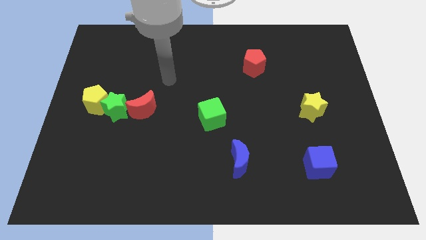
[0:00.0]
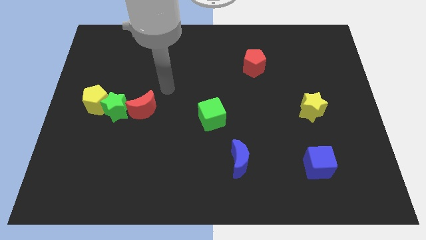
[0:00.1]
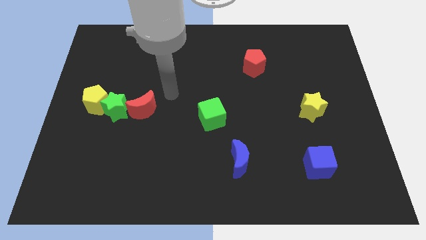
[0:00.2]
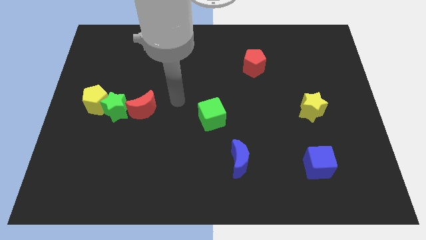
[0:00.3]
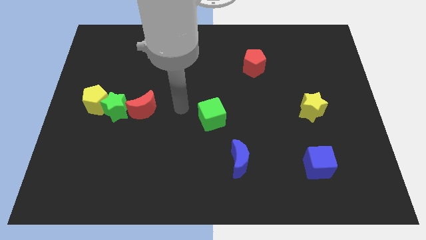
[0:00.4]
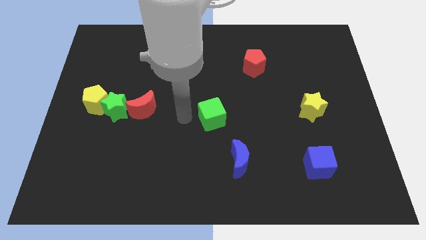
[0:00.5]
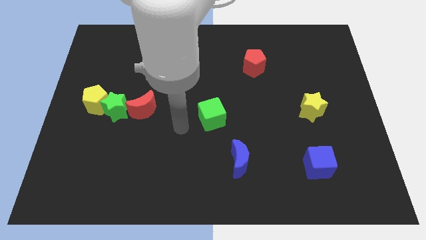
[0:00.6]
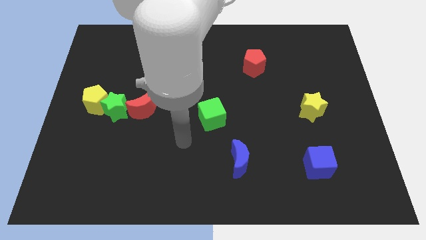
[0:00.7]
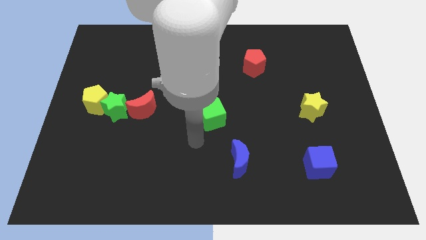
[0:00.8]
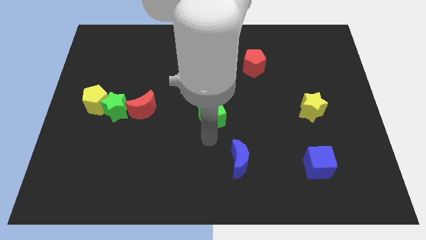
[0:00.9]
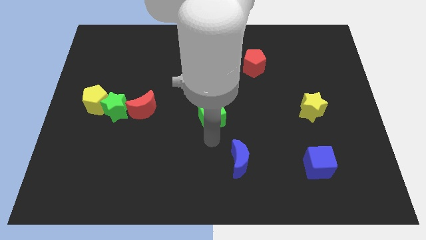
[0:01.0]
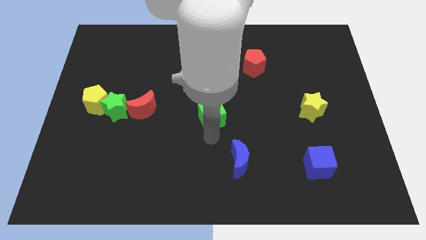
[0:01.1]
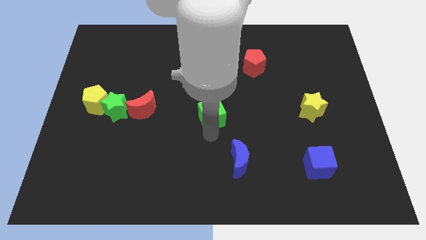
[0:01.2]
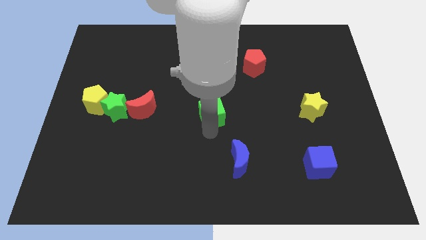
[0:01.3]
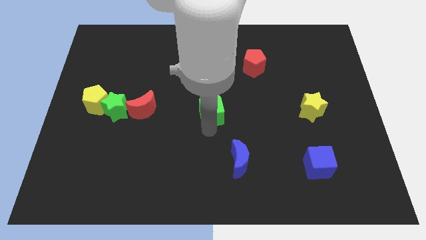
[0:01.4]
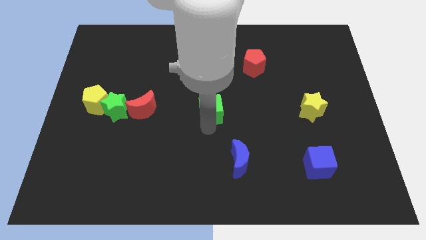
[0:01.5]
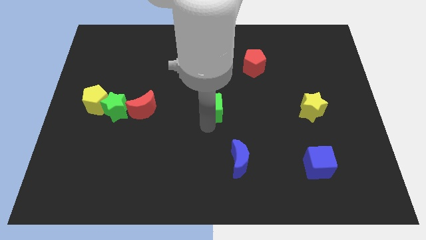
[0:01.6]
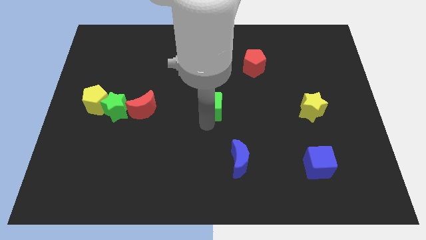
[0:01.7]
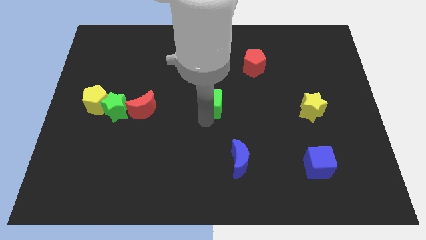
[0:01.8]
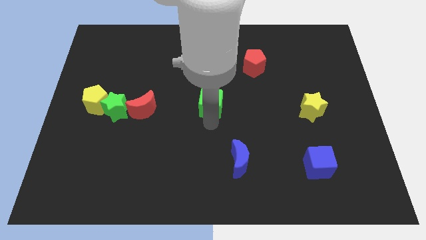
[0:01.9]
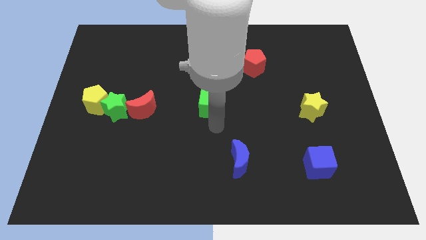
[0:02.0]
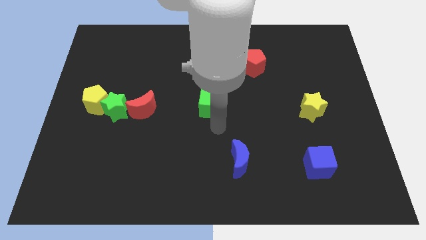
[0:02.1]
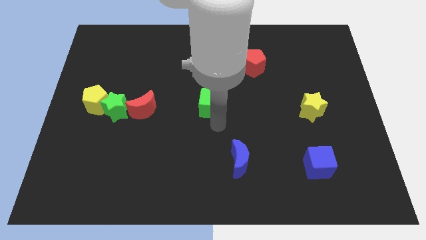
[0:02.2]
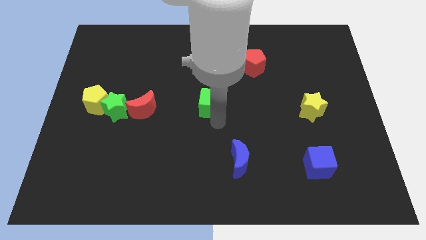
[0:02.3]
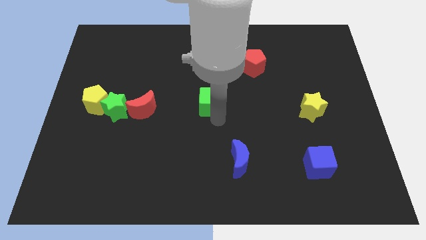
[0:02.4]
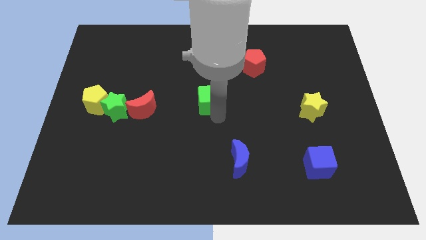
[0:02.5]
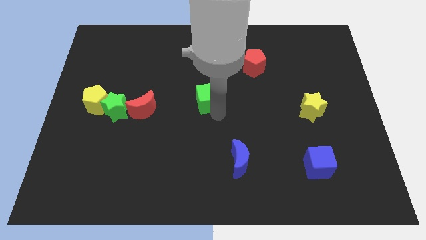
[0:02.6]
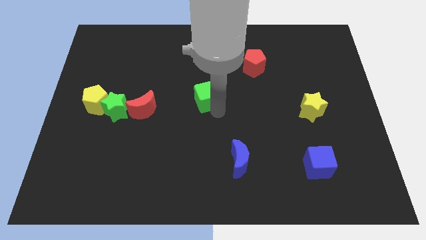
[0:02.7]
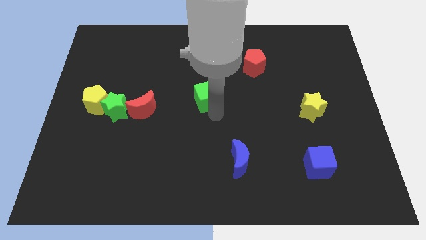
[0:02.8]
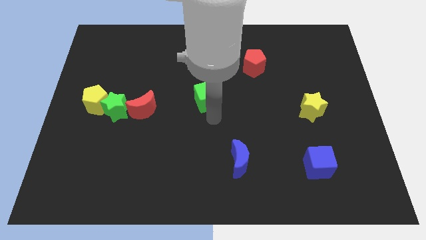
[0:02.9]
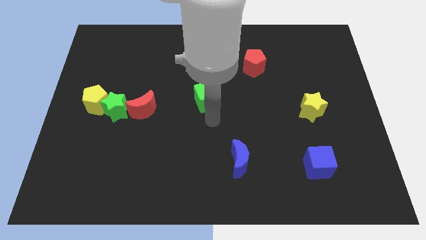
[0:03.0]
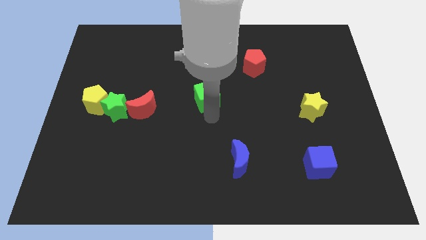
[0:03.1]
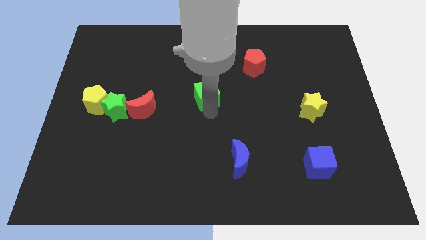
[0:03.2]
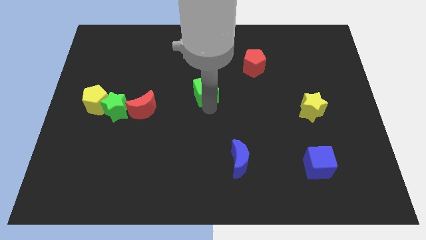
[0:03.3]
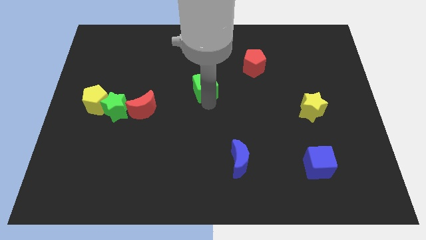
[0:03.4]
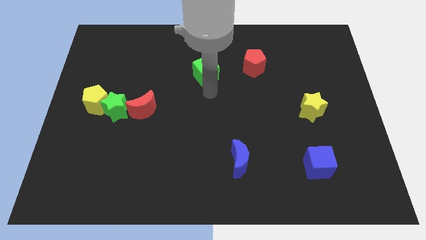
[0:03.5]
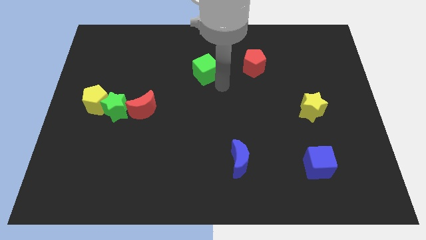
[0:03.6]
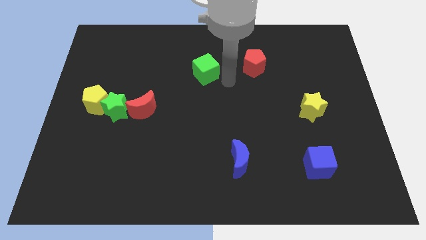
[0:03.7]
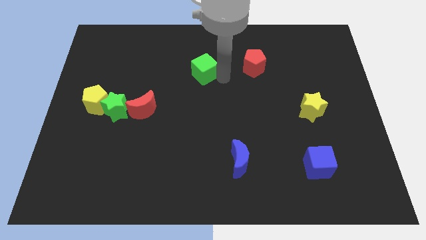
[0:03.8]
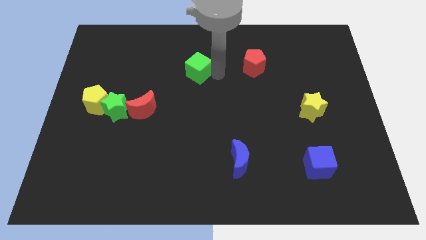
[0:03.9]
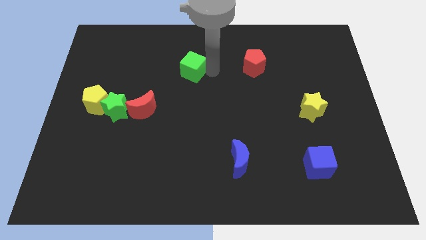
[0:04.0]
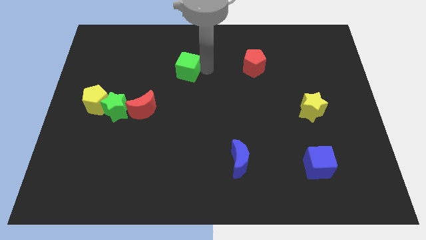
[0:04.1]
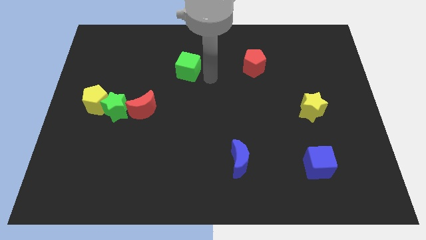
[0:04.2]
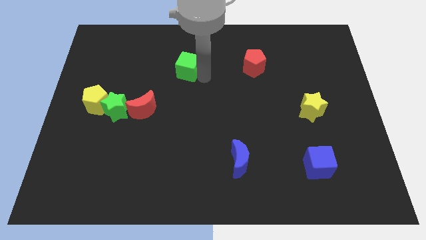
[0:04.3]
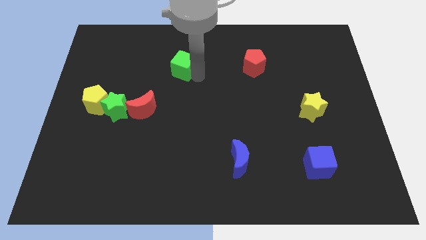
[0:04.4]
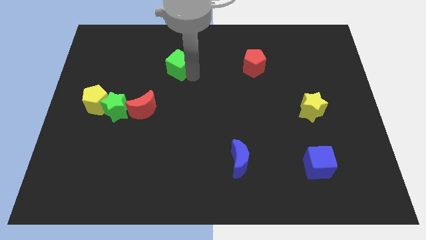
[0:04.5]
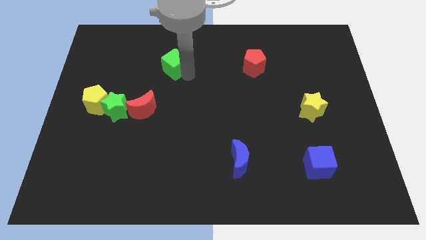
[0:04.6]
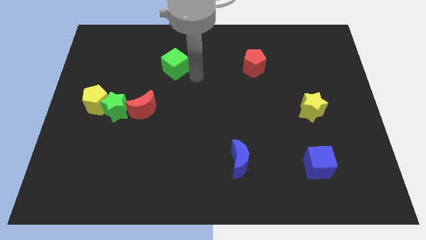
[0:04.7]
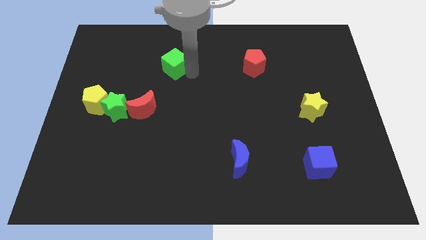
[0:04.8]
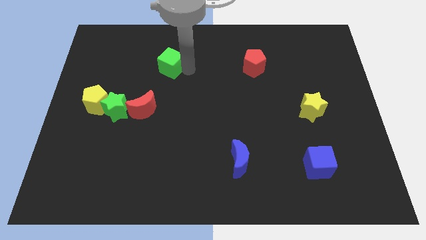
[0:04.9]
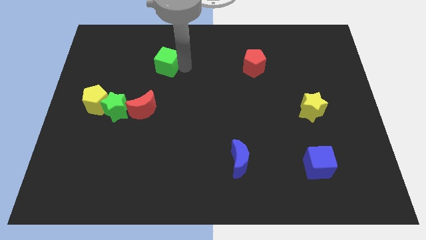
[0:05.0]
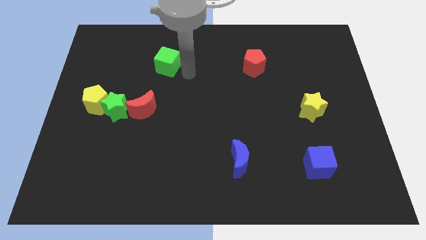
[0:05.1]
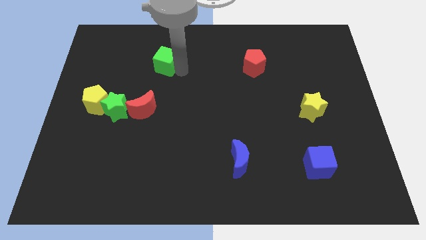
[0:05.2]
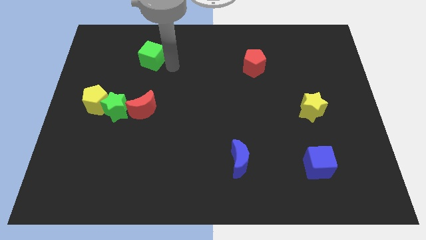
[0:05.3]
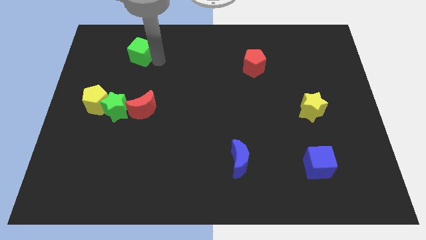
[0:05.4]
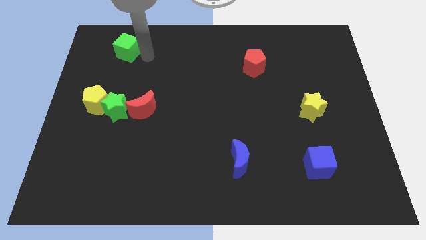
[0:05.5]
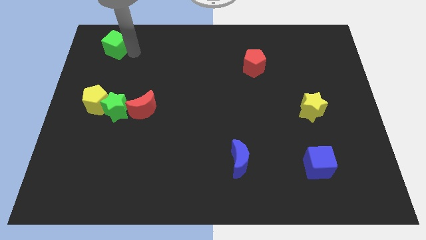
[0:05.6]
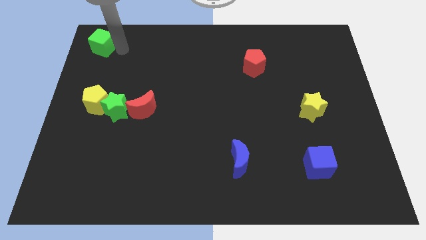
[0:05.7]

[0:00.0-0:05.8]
push the green cube to the top left of the board

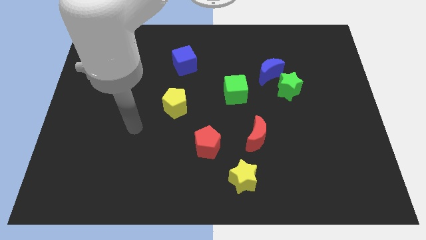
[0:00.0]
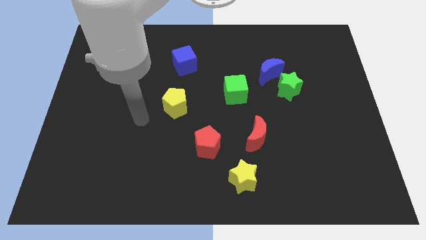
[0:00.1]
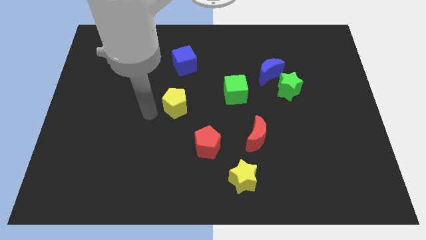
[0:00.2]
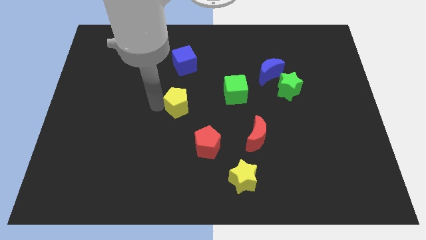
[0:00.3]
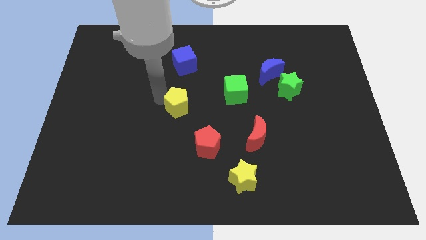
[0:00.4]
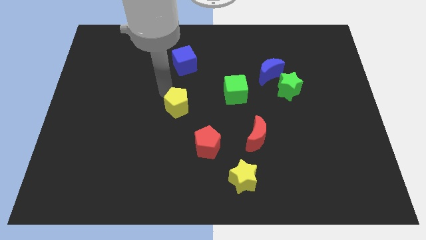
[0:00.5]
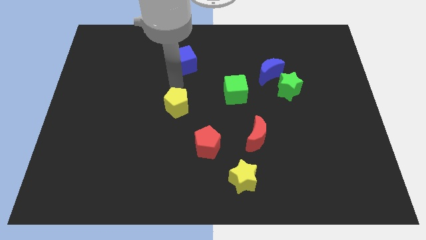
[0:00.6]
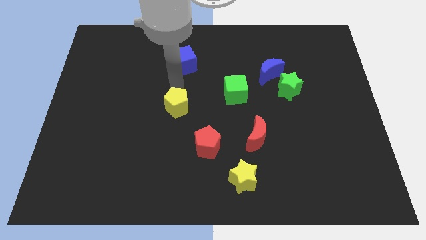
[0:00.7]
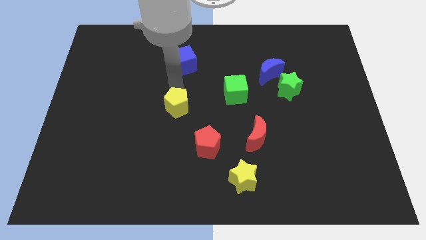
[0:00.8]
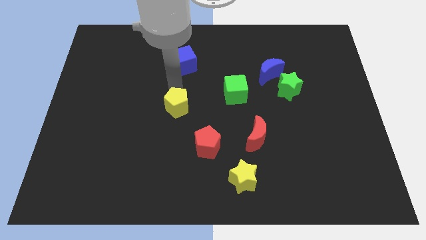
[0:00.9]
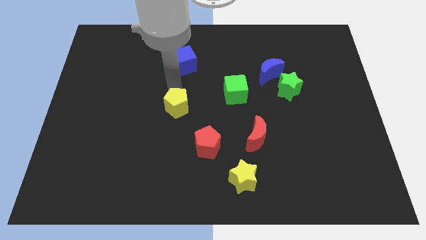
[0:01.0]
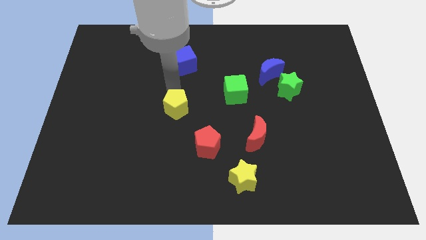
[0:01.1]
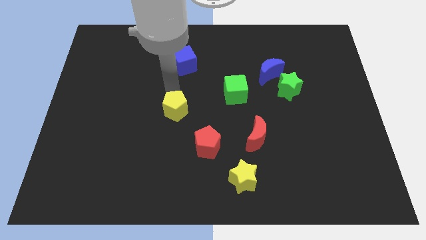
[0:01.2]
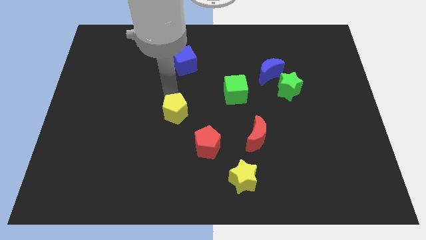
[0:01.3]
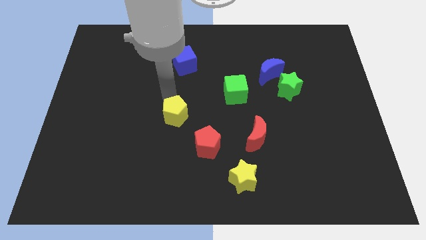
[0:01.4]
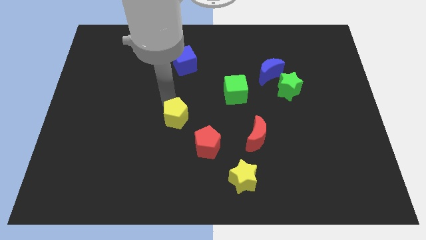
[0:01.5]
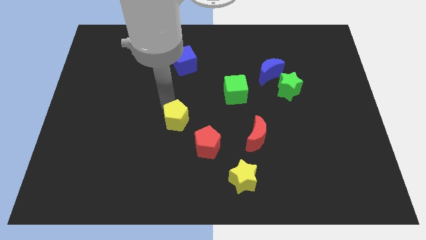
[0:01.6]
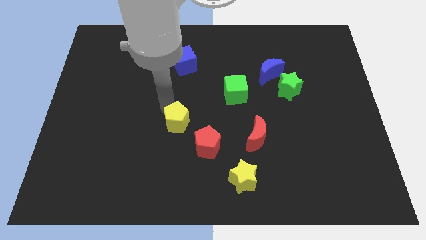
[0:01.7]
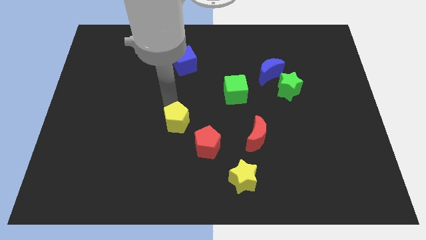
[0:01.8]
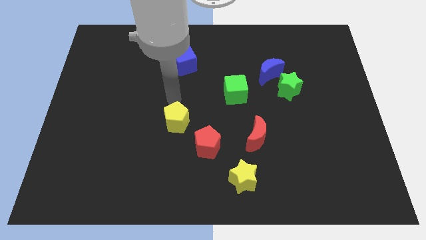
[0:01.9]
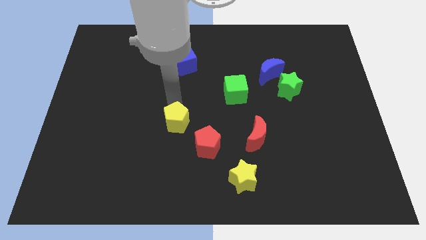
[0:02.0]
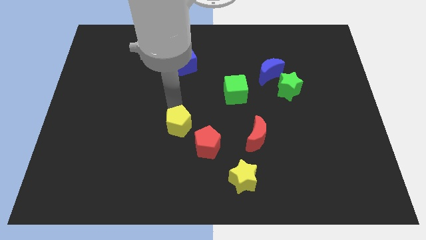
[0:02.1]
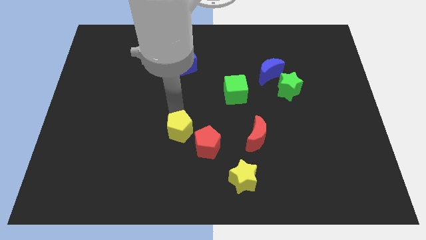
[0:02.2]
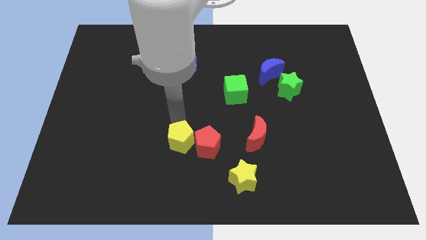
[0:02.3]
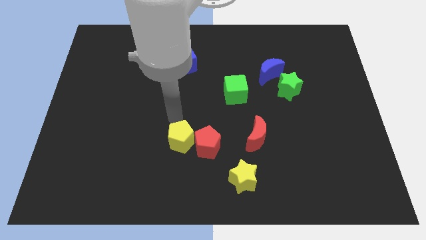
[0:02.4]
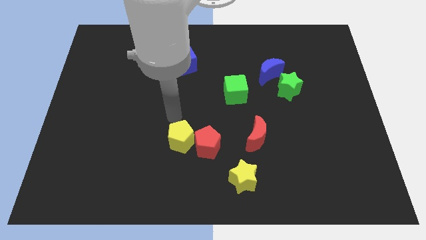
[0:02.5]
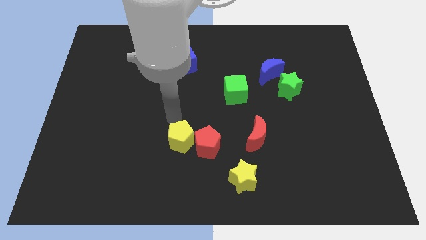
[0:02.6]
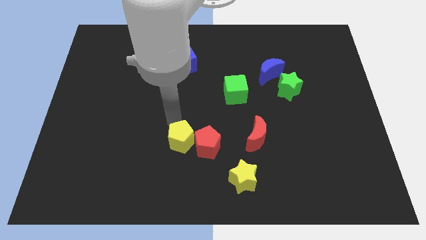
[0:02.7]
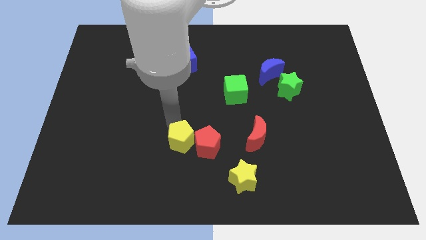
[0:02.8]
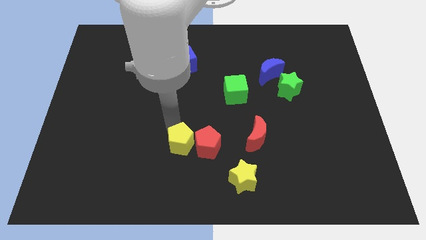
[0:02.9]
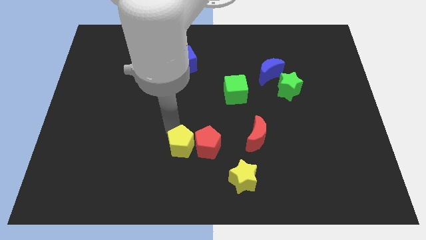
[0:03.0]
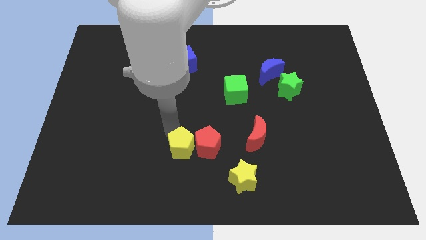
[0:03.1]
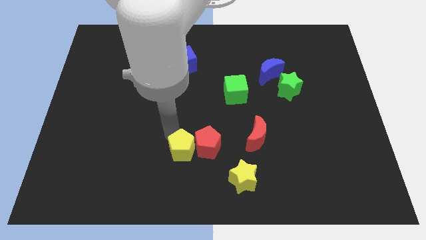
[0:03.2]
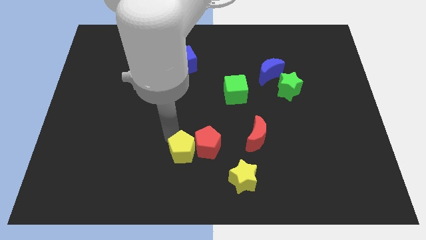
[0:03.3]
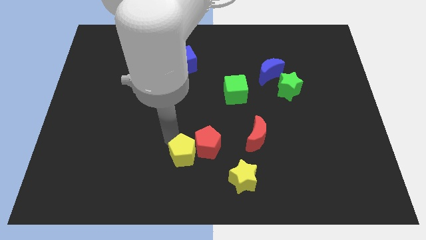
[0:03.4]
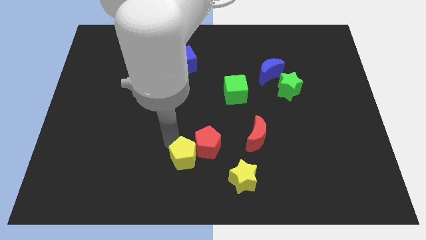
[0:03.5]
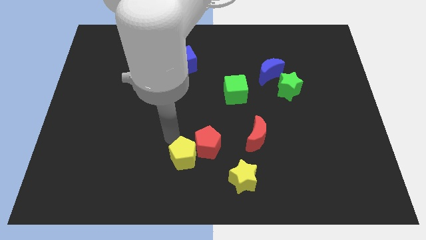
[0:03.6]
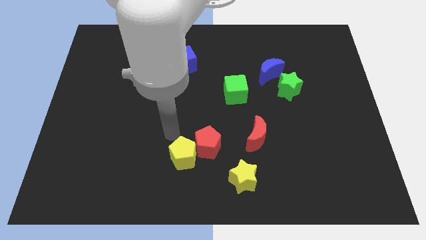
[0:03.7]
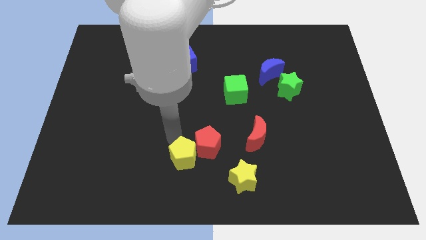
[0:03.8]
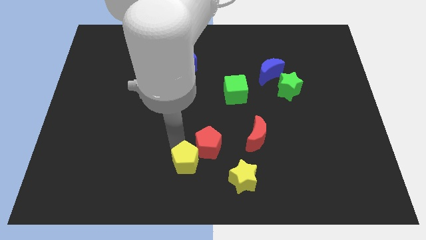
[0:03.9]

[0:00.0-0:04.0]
push the yellow pentagon to the bottom side
